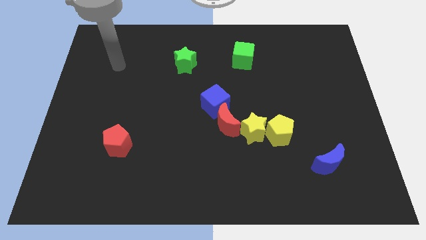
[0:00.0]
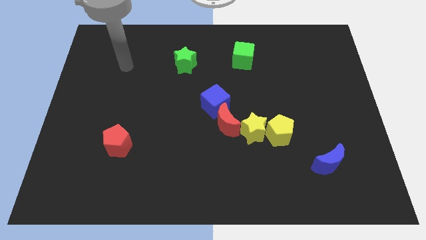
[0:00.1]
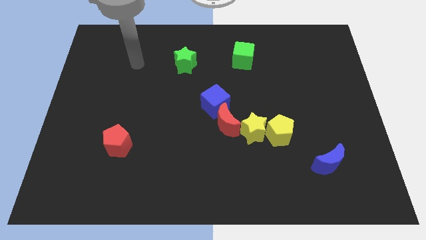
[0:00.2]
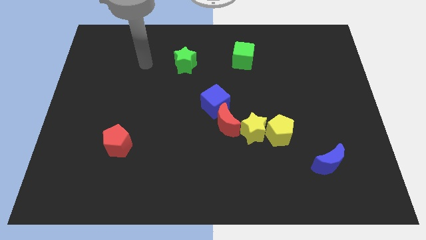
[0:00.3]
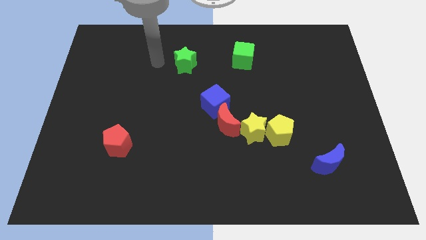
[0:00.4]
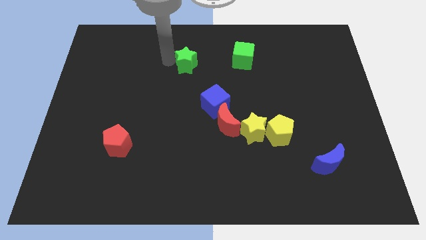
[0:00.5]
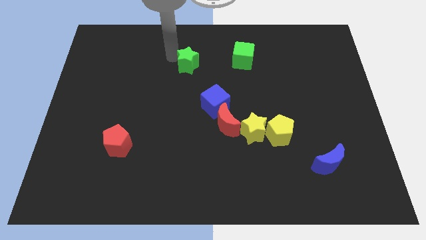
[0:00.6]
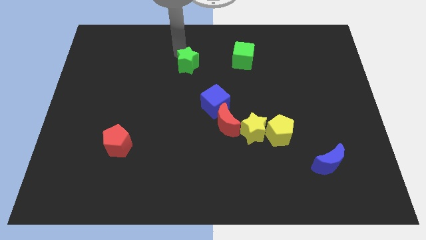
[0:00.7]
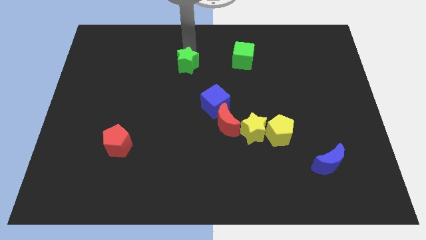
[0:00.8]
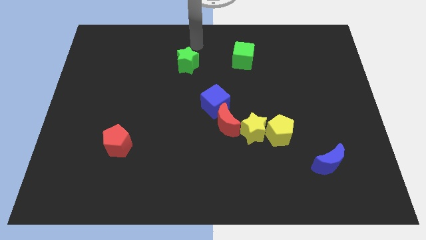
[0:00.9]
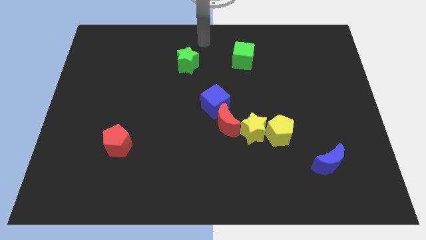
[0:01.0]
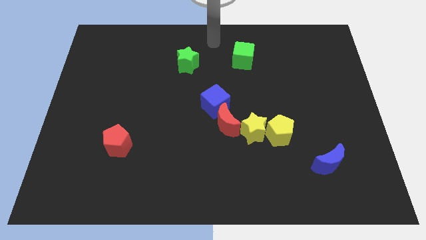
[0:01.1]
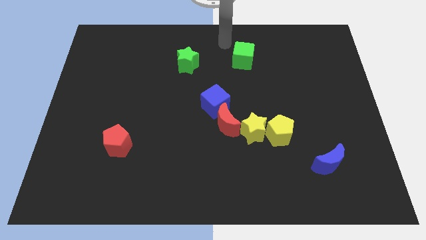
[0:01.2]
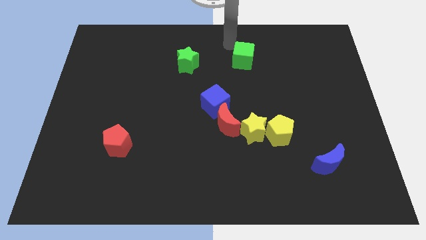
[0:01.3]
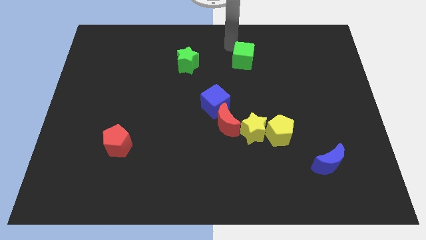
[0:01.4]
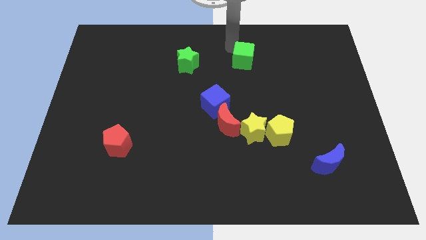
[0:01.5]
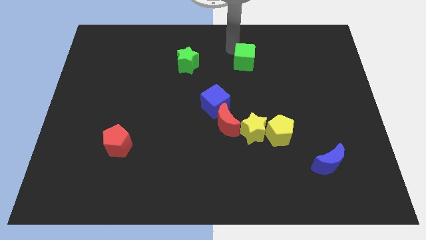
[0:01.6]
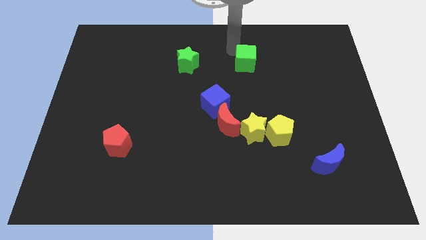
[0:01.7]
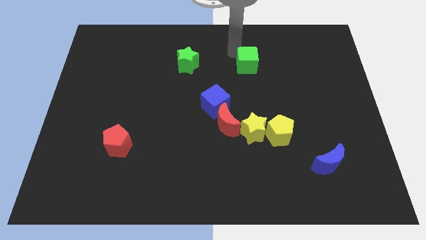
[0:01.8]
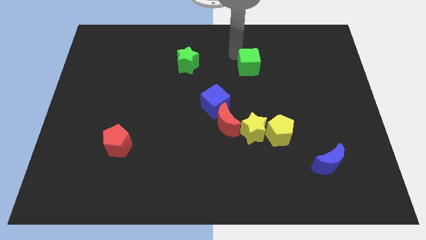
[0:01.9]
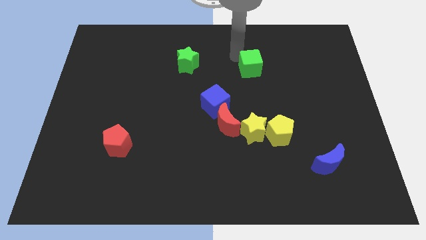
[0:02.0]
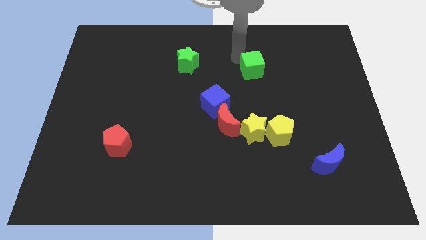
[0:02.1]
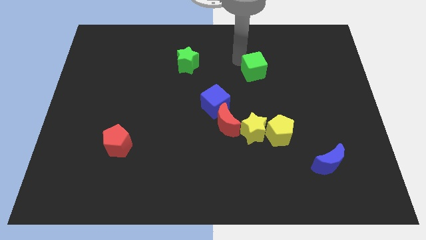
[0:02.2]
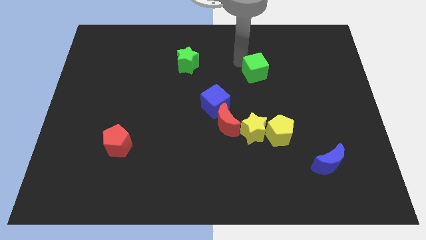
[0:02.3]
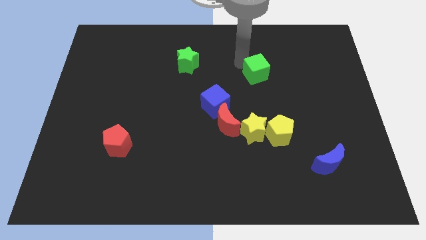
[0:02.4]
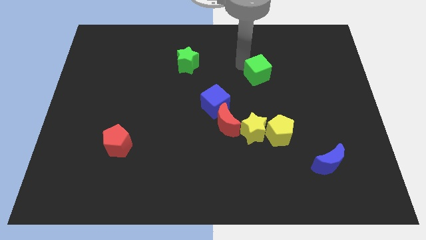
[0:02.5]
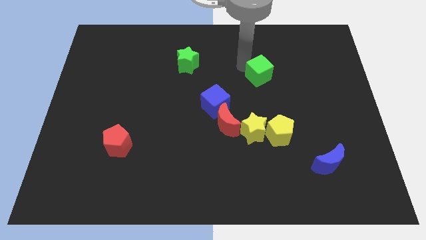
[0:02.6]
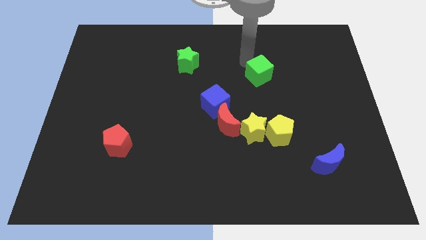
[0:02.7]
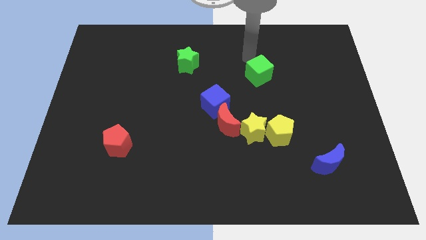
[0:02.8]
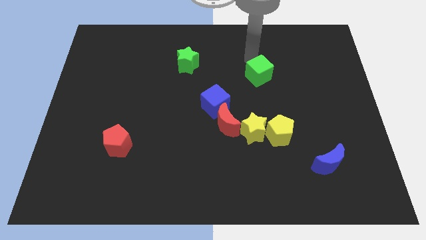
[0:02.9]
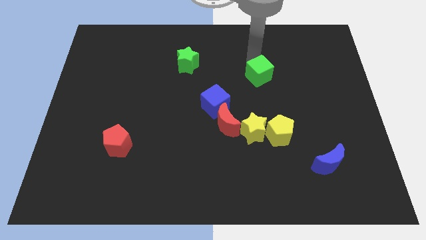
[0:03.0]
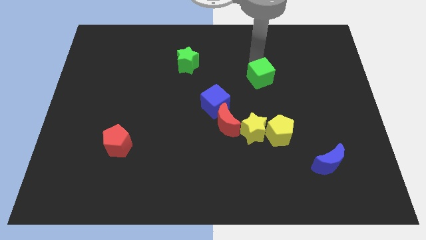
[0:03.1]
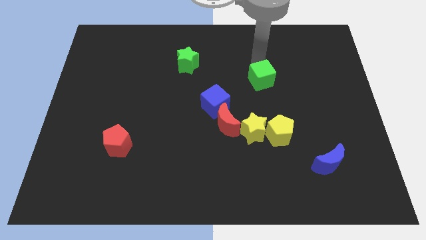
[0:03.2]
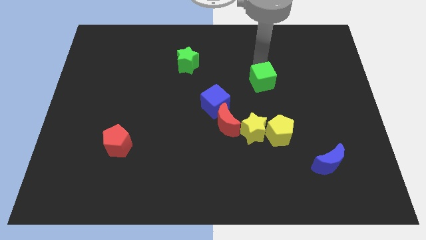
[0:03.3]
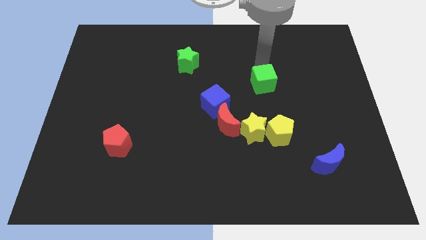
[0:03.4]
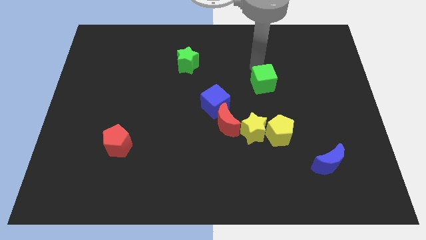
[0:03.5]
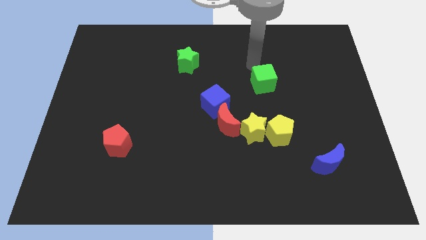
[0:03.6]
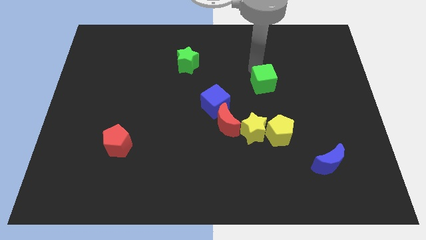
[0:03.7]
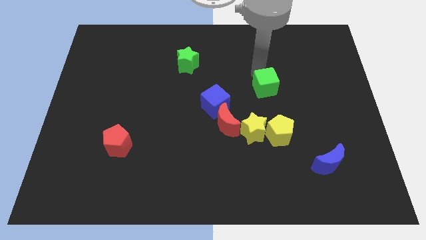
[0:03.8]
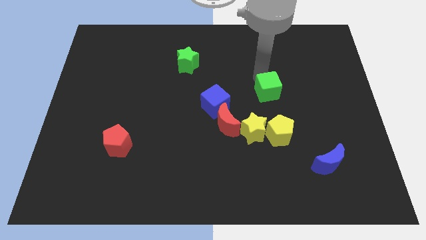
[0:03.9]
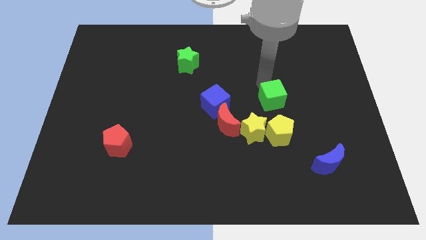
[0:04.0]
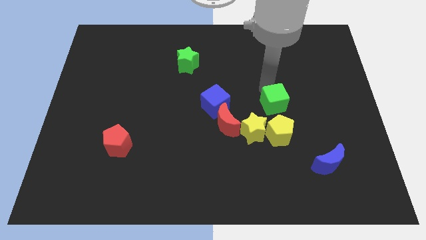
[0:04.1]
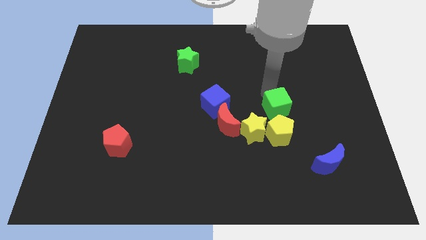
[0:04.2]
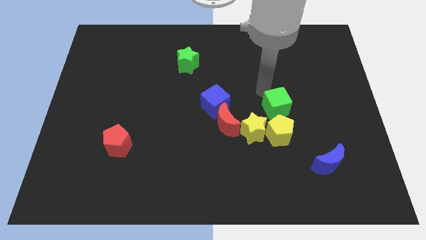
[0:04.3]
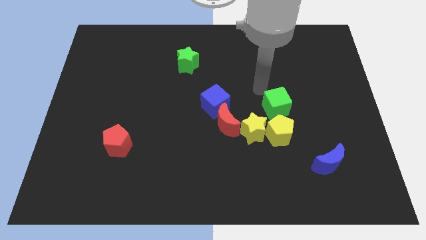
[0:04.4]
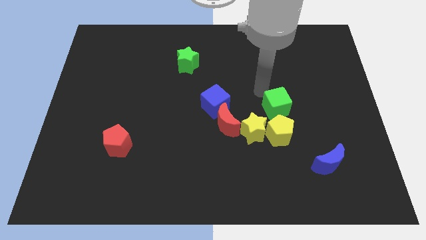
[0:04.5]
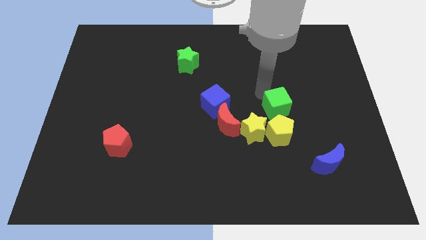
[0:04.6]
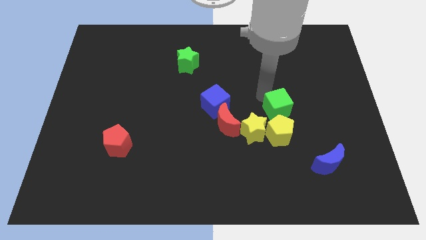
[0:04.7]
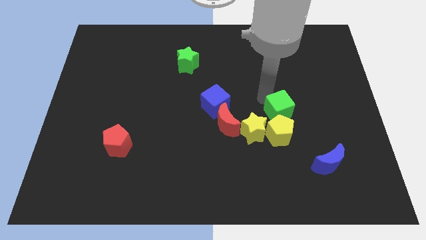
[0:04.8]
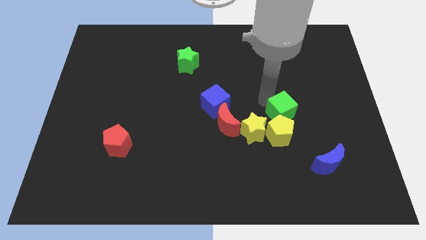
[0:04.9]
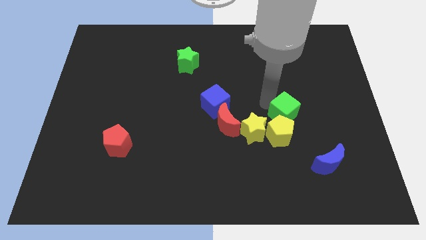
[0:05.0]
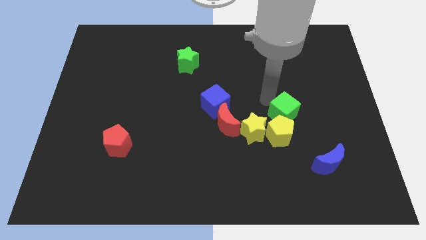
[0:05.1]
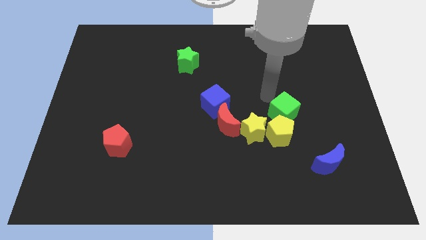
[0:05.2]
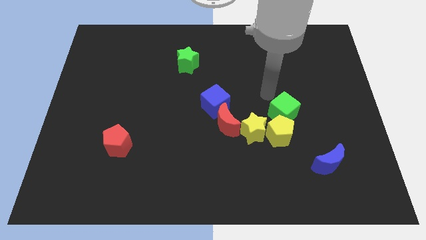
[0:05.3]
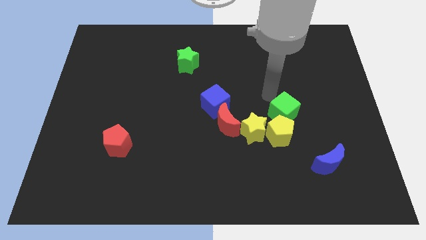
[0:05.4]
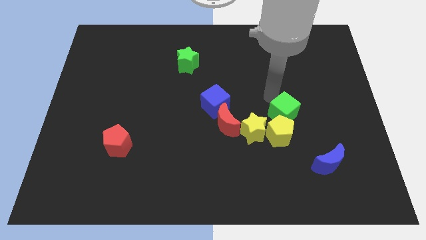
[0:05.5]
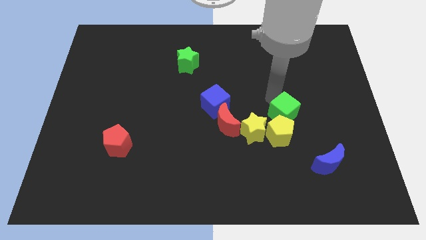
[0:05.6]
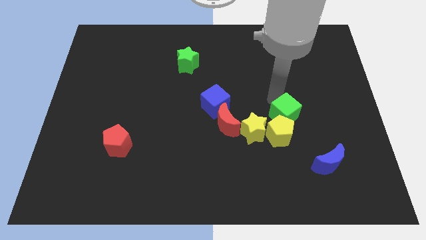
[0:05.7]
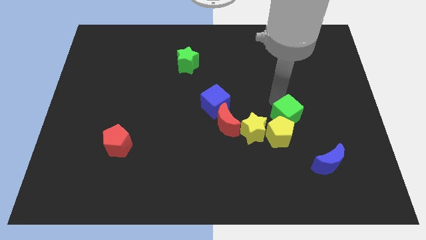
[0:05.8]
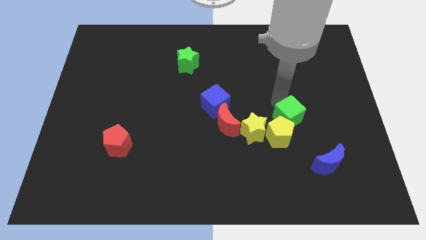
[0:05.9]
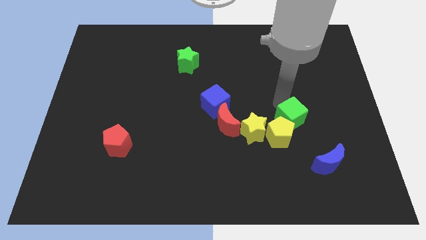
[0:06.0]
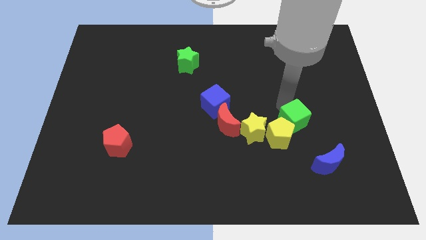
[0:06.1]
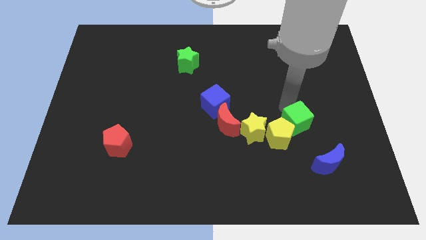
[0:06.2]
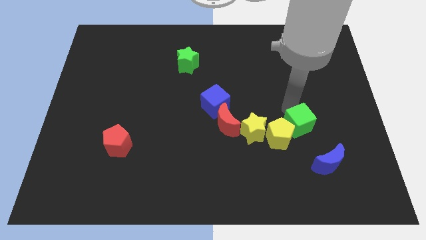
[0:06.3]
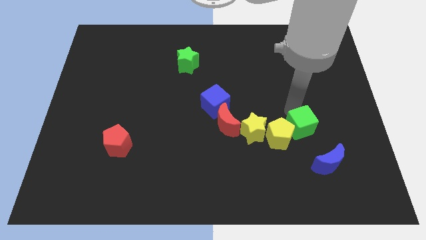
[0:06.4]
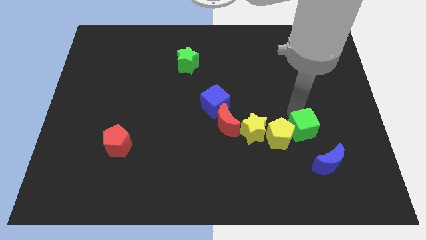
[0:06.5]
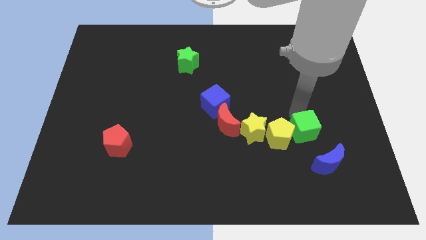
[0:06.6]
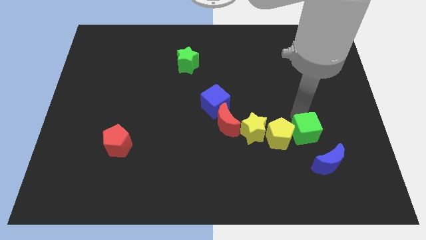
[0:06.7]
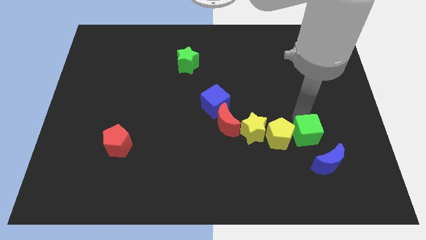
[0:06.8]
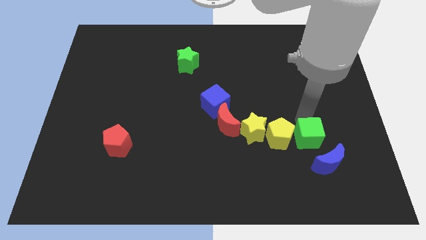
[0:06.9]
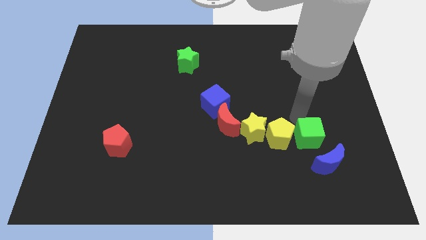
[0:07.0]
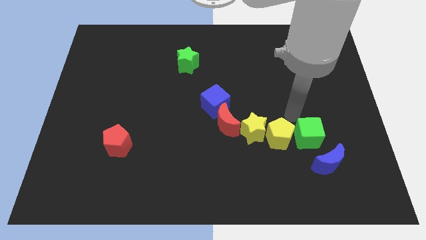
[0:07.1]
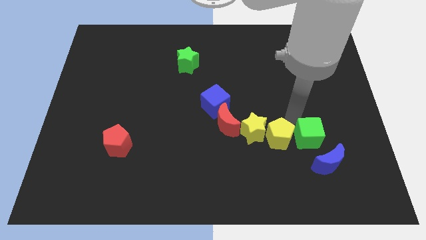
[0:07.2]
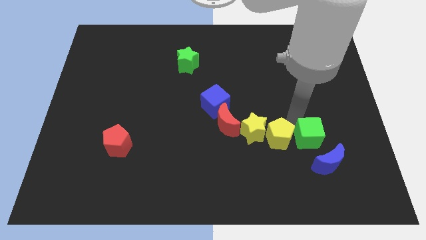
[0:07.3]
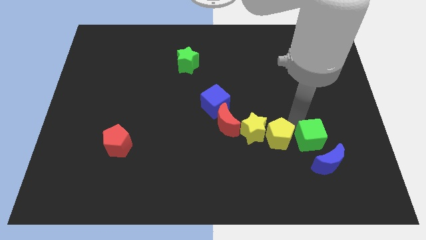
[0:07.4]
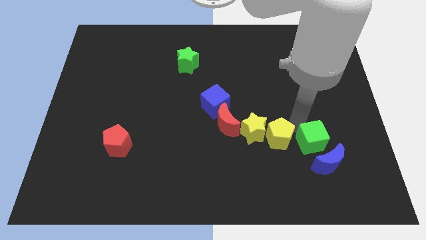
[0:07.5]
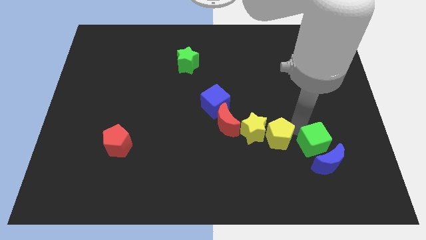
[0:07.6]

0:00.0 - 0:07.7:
push the green cube towards the blue moon
